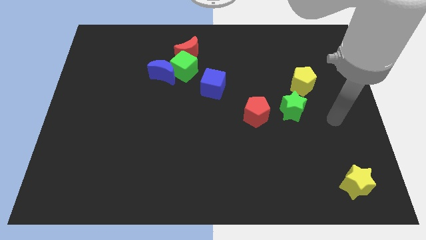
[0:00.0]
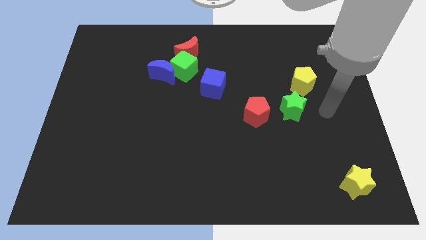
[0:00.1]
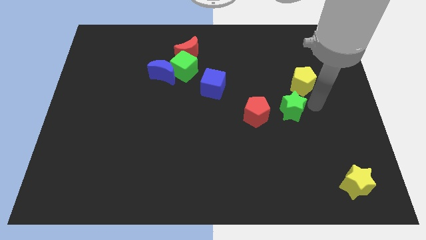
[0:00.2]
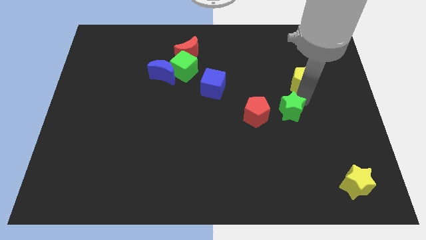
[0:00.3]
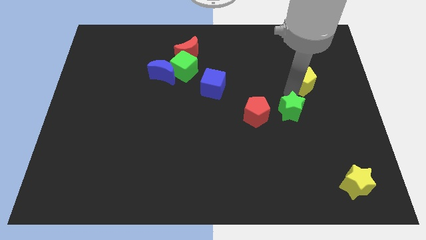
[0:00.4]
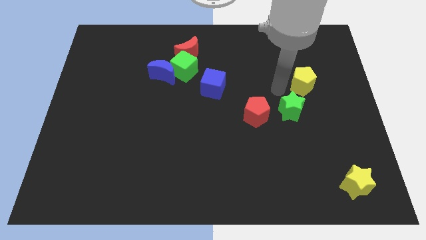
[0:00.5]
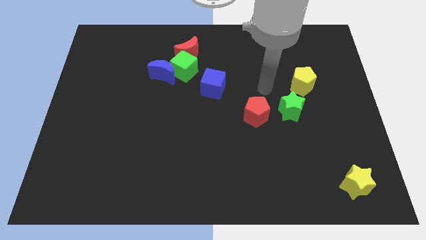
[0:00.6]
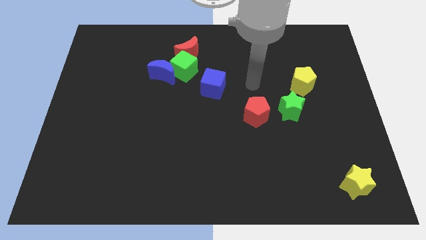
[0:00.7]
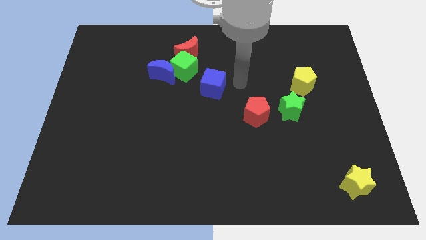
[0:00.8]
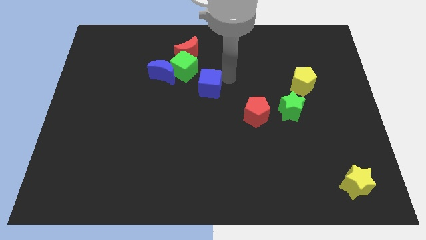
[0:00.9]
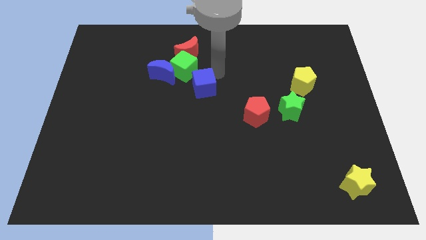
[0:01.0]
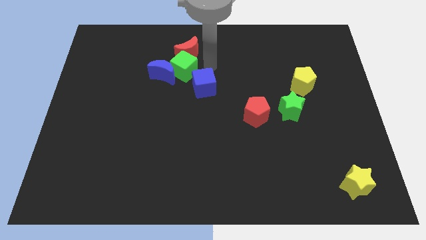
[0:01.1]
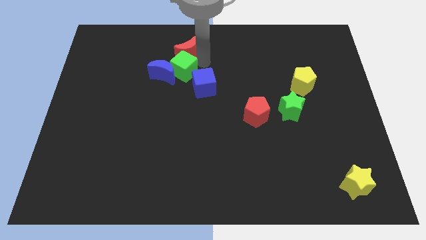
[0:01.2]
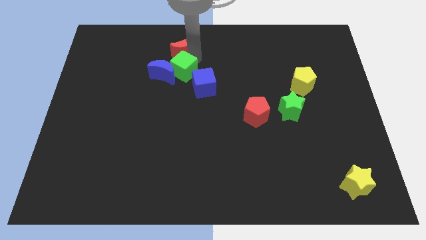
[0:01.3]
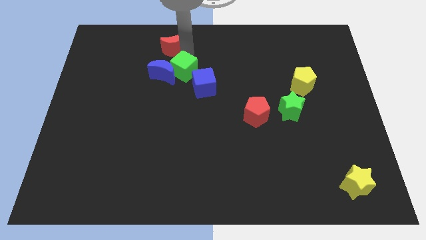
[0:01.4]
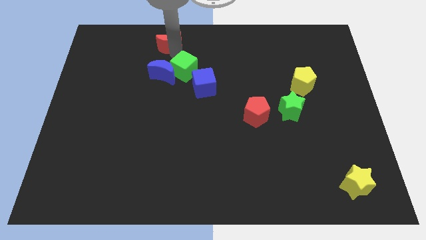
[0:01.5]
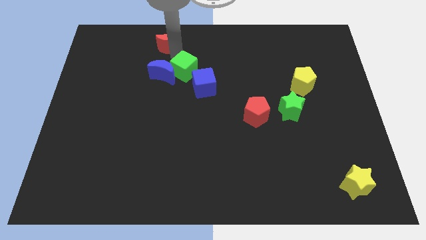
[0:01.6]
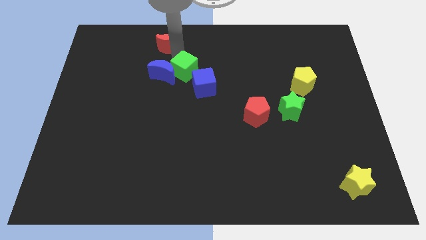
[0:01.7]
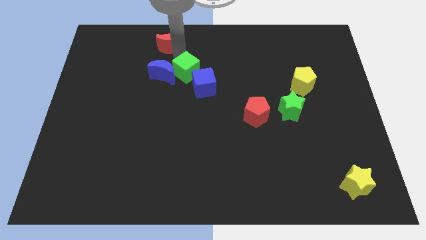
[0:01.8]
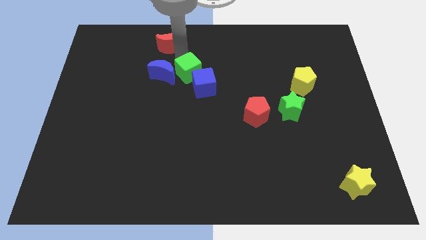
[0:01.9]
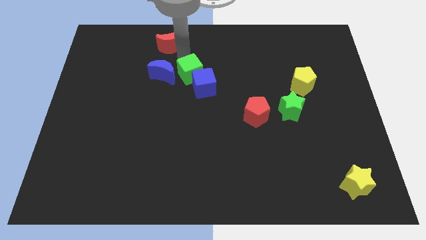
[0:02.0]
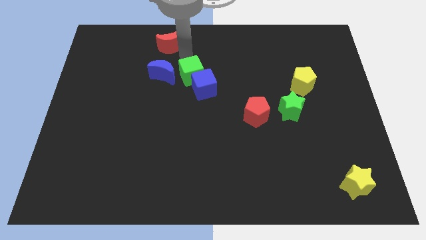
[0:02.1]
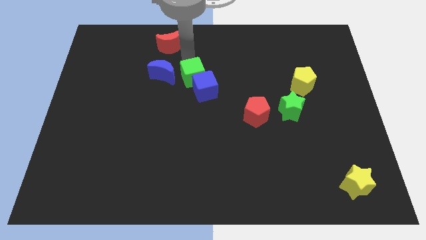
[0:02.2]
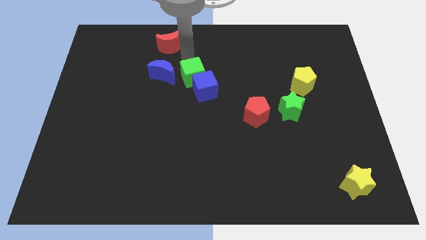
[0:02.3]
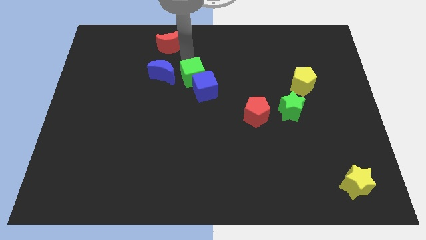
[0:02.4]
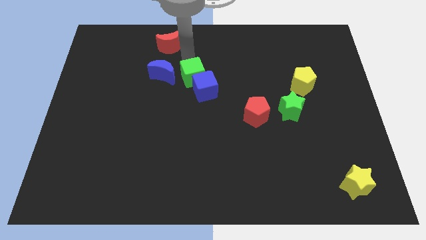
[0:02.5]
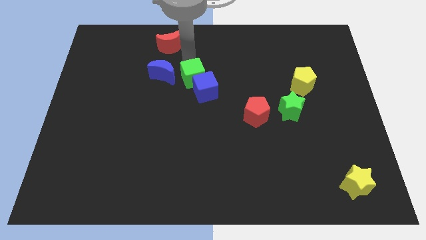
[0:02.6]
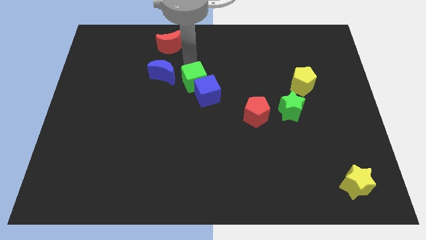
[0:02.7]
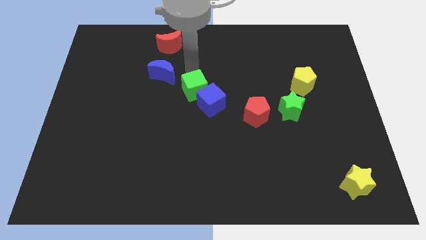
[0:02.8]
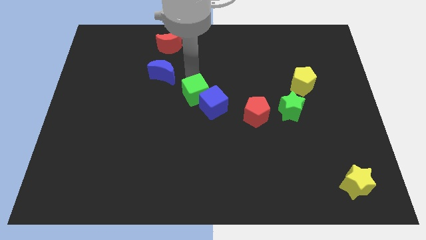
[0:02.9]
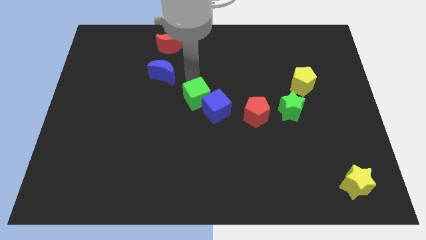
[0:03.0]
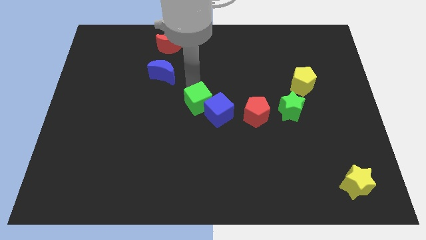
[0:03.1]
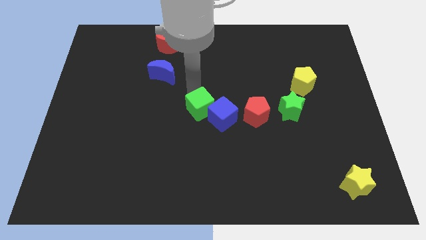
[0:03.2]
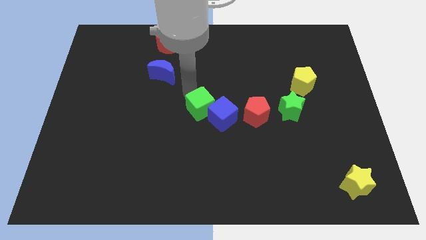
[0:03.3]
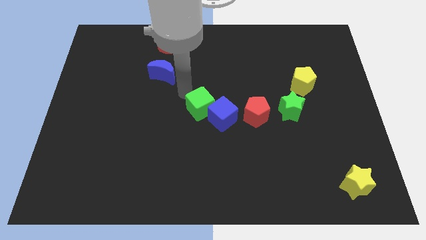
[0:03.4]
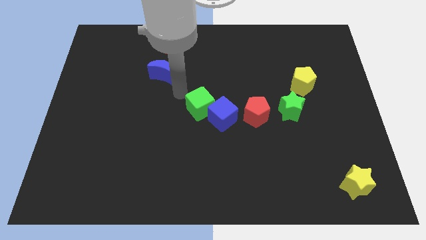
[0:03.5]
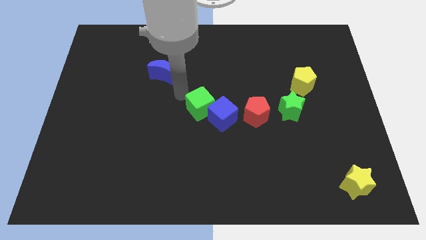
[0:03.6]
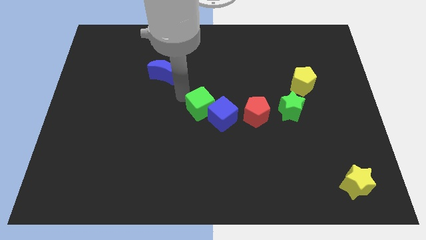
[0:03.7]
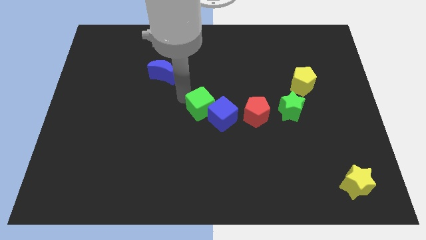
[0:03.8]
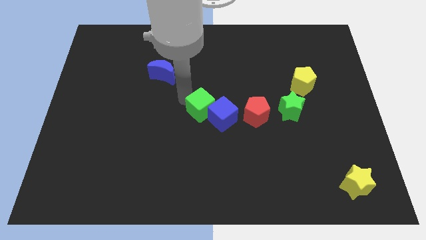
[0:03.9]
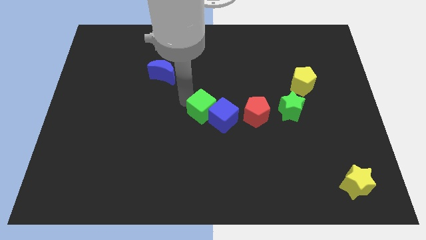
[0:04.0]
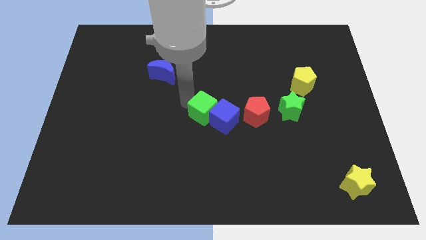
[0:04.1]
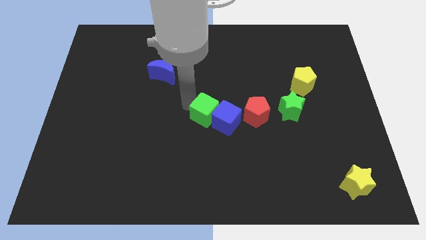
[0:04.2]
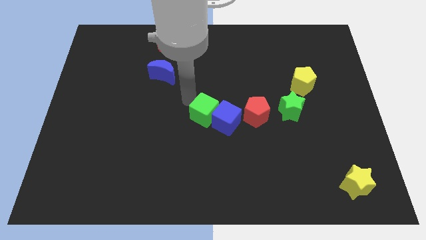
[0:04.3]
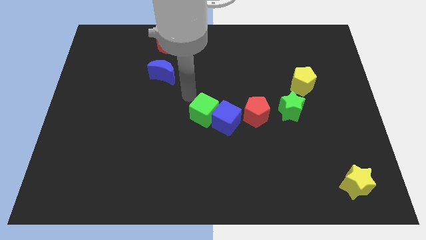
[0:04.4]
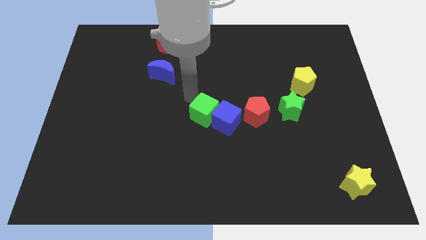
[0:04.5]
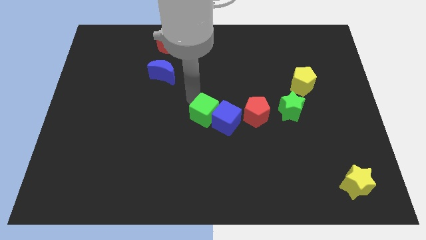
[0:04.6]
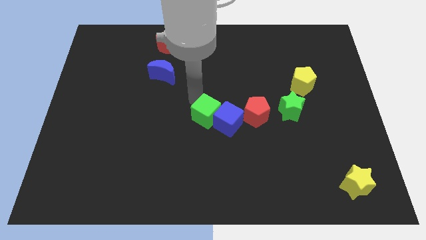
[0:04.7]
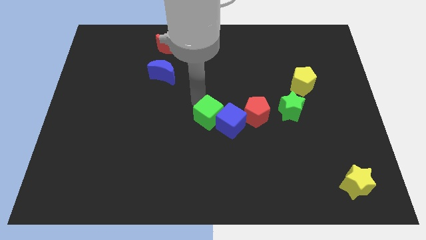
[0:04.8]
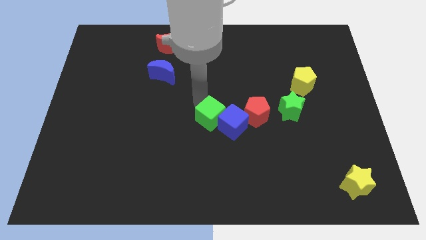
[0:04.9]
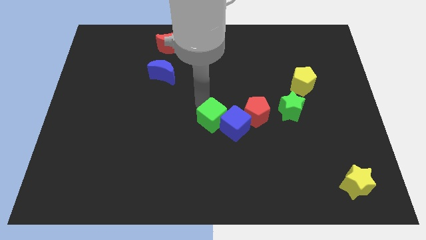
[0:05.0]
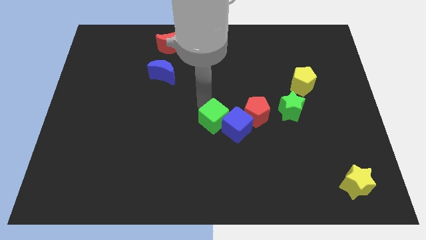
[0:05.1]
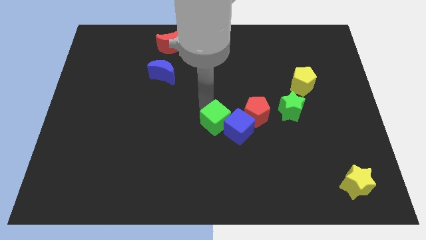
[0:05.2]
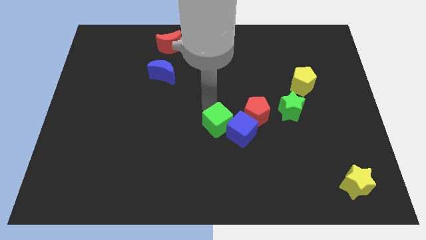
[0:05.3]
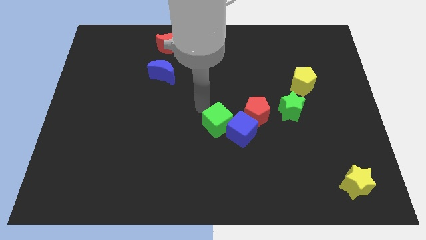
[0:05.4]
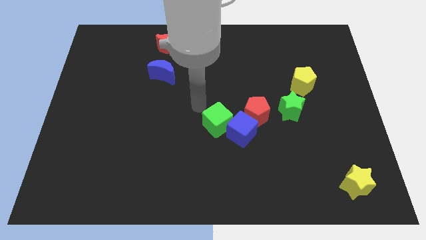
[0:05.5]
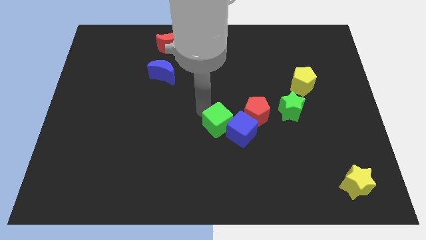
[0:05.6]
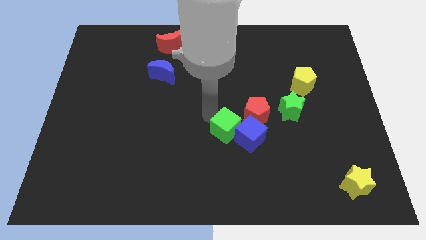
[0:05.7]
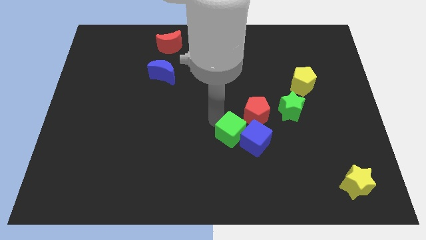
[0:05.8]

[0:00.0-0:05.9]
slide the green cube downwards and right diagonally

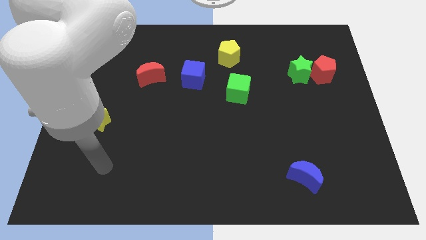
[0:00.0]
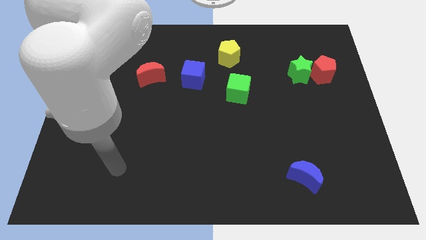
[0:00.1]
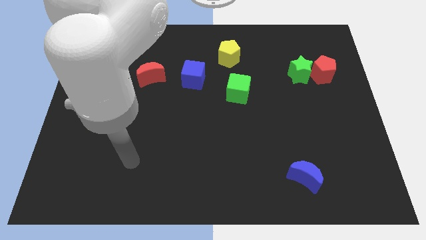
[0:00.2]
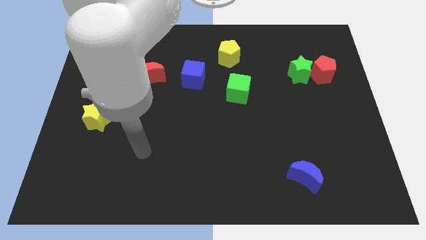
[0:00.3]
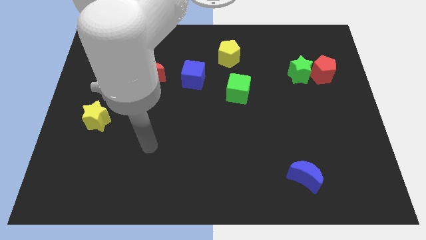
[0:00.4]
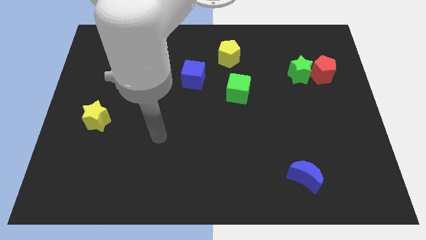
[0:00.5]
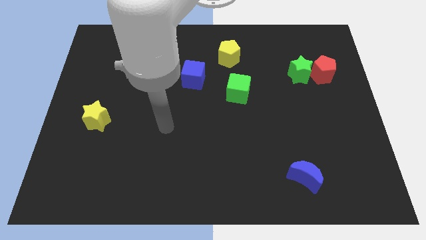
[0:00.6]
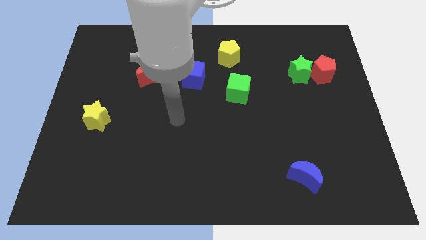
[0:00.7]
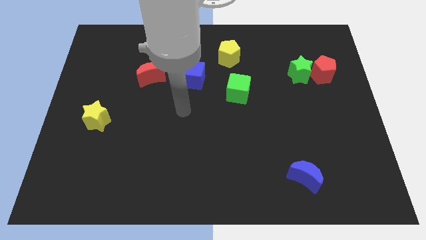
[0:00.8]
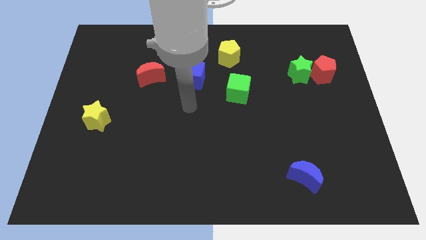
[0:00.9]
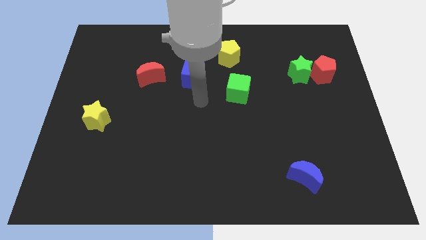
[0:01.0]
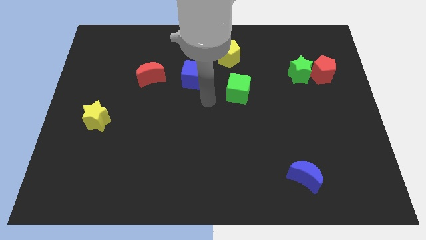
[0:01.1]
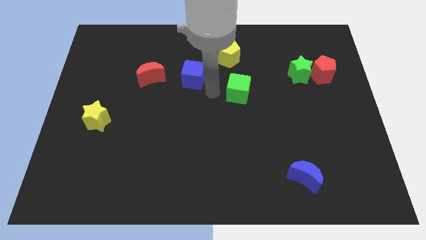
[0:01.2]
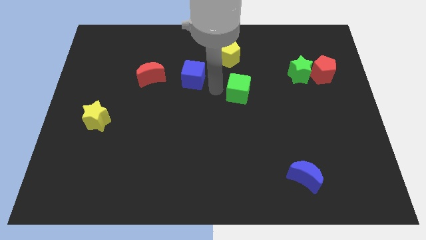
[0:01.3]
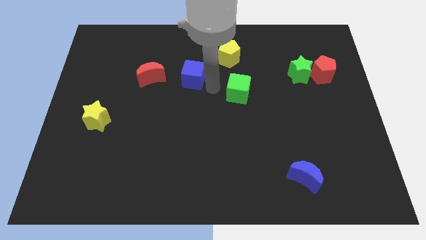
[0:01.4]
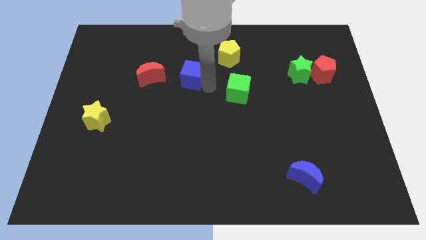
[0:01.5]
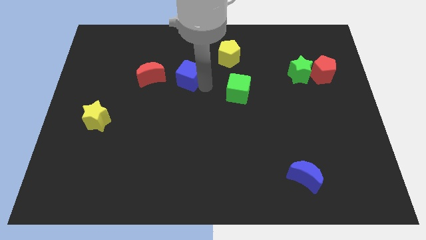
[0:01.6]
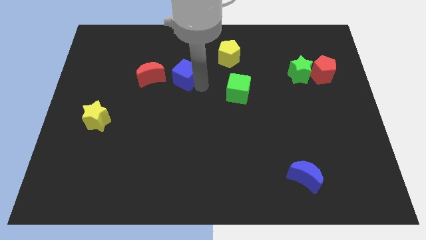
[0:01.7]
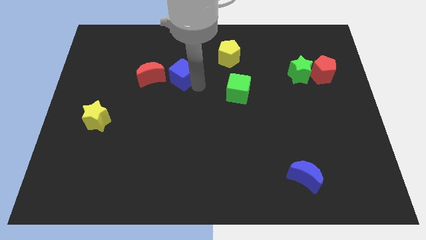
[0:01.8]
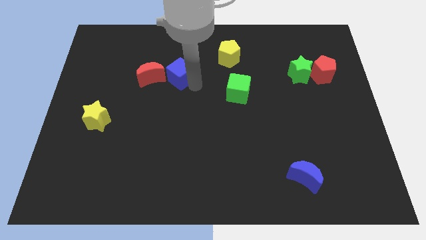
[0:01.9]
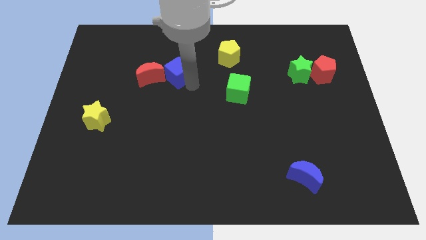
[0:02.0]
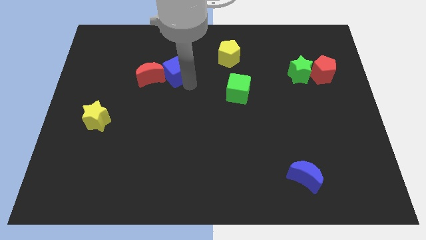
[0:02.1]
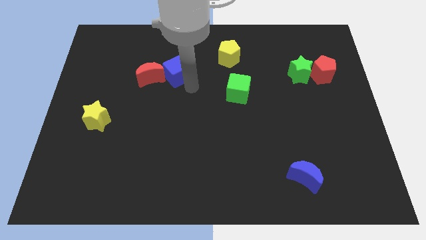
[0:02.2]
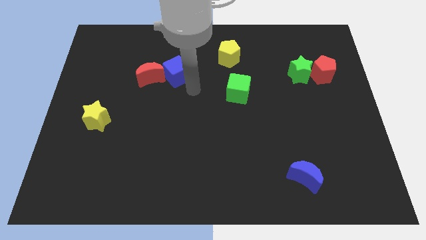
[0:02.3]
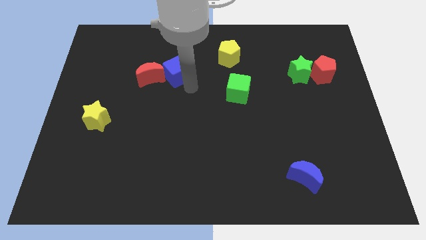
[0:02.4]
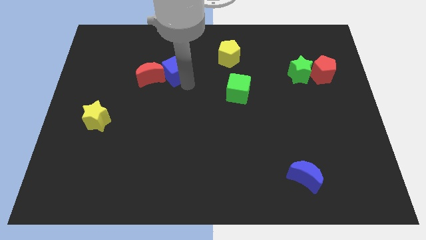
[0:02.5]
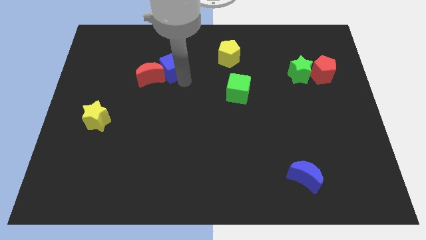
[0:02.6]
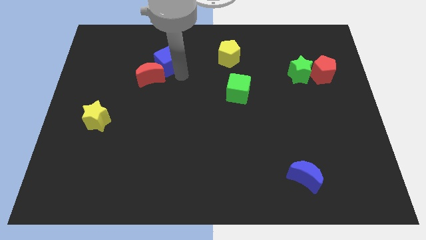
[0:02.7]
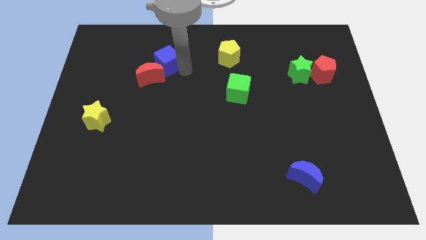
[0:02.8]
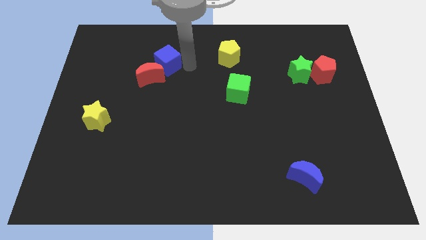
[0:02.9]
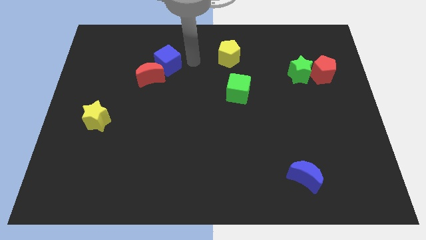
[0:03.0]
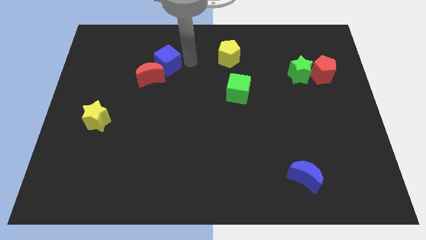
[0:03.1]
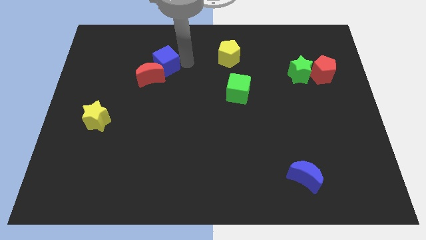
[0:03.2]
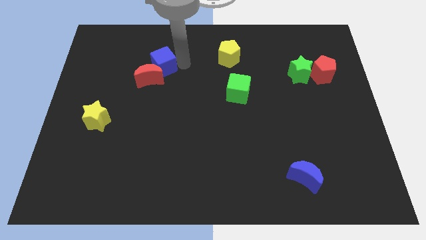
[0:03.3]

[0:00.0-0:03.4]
push the blue cube slightly left
